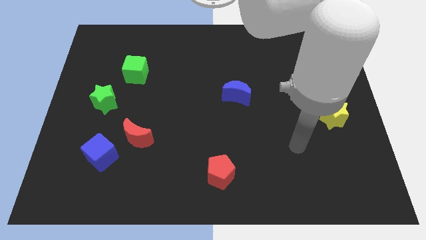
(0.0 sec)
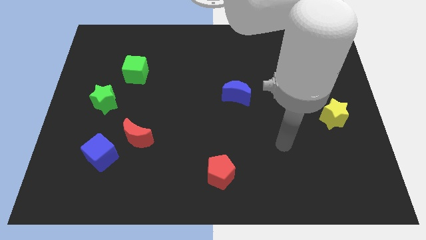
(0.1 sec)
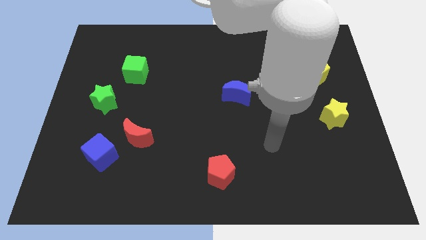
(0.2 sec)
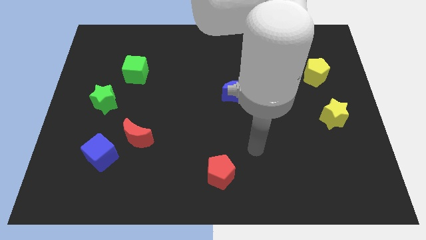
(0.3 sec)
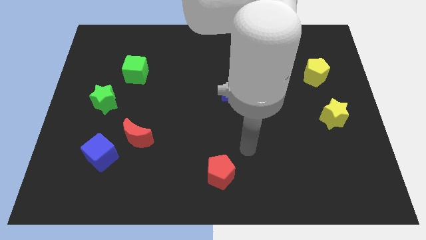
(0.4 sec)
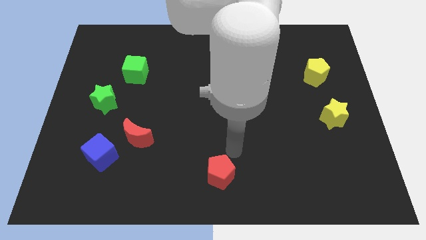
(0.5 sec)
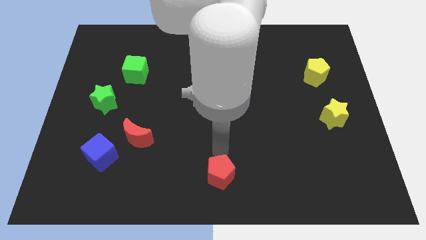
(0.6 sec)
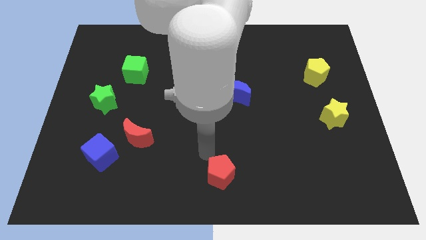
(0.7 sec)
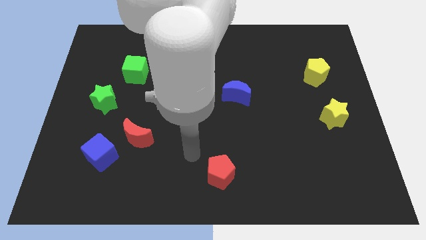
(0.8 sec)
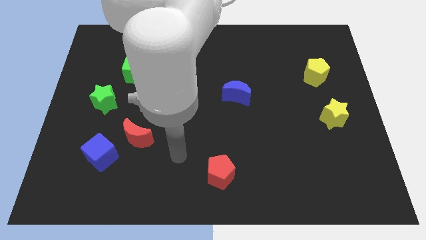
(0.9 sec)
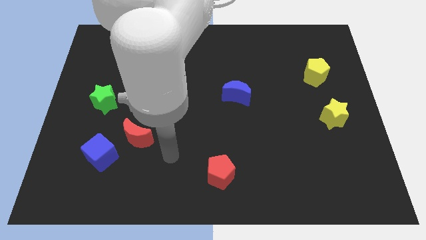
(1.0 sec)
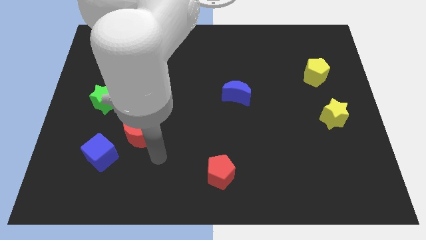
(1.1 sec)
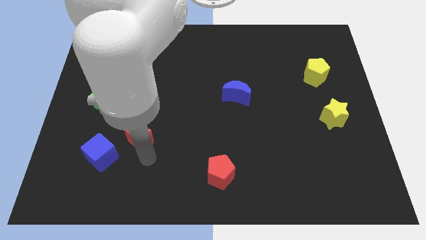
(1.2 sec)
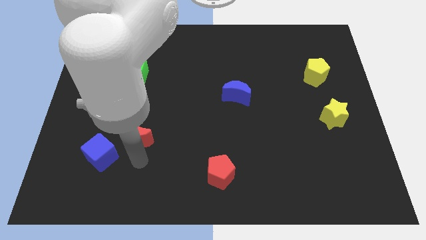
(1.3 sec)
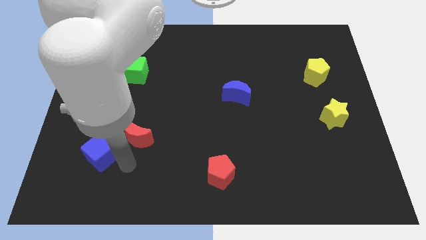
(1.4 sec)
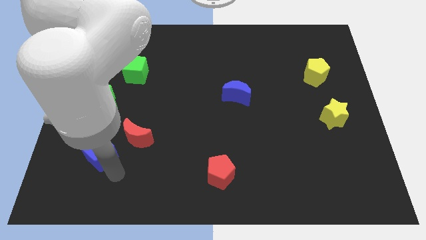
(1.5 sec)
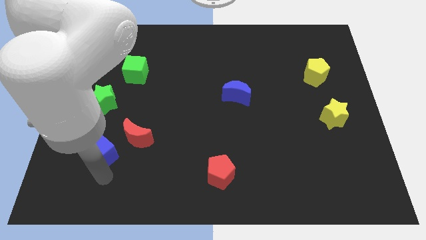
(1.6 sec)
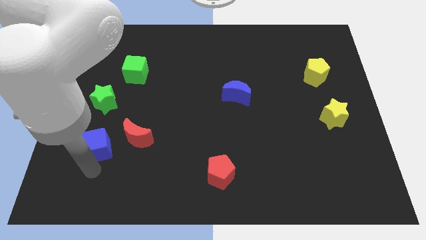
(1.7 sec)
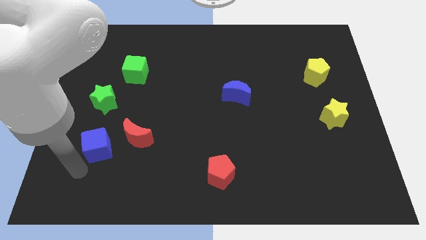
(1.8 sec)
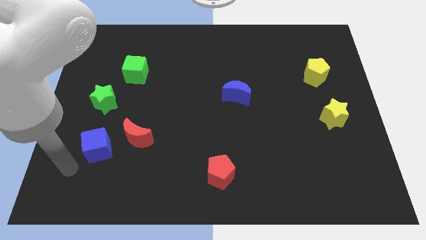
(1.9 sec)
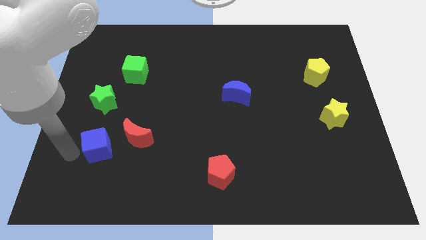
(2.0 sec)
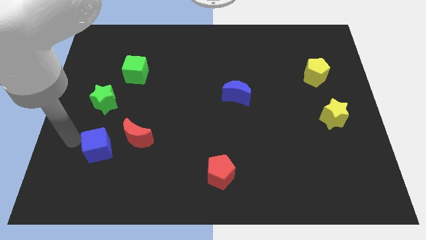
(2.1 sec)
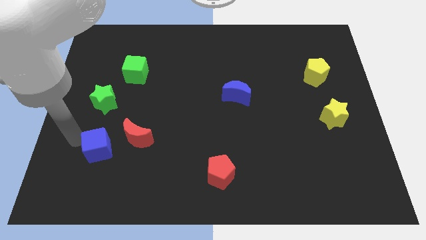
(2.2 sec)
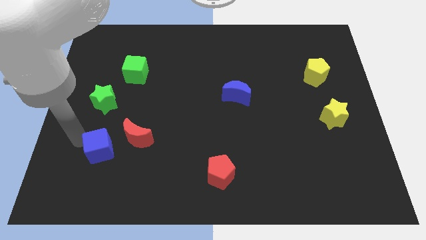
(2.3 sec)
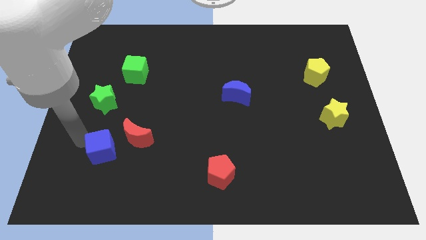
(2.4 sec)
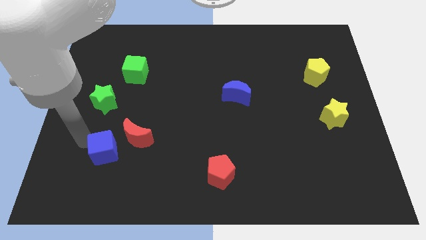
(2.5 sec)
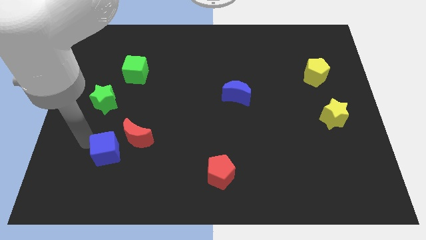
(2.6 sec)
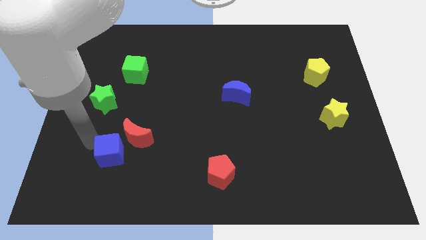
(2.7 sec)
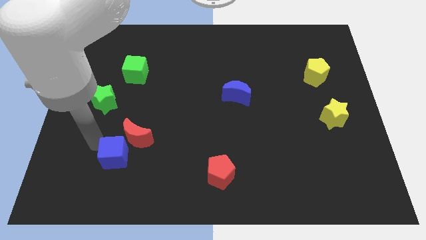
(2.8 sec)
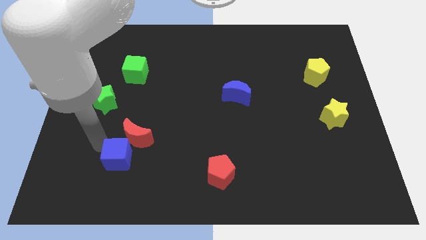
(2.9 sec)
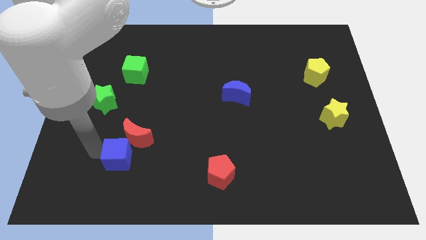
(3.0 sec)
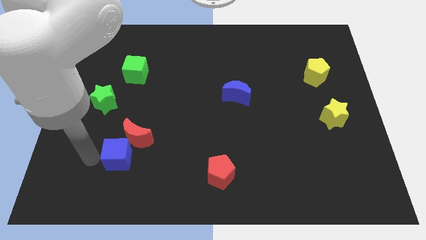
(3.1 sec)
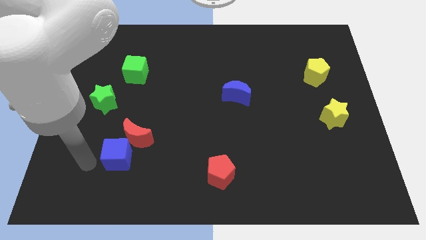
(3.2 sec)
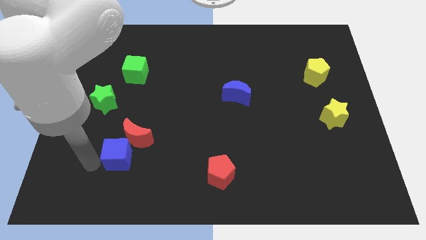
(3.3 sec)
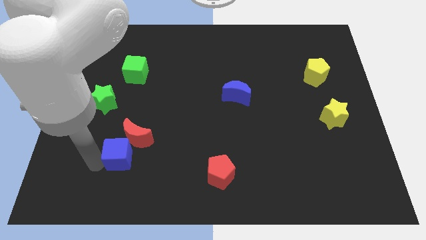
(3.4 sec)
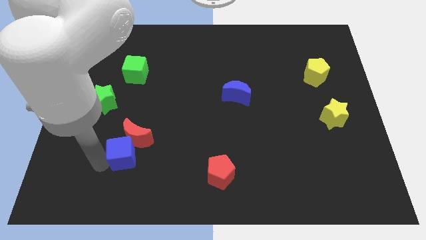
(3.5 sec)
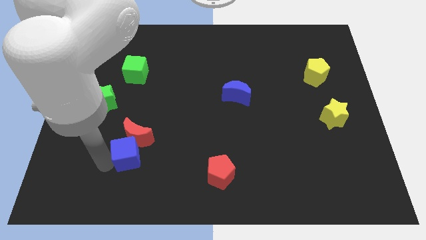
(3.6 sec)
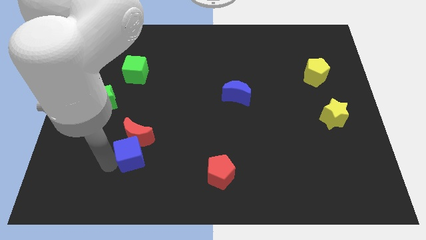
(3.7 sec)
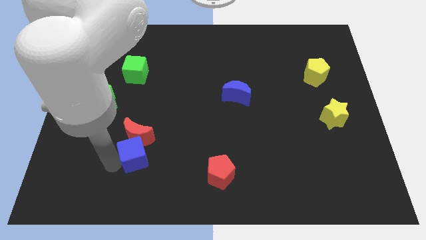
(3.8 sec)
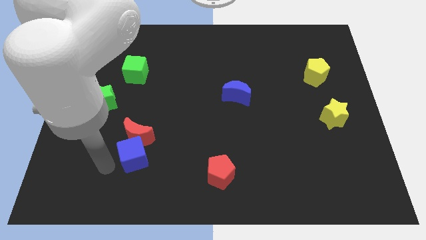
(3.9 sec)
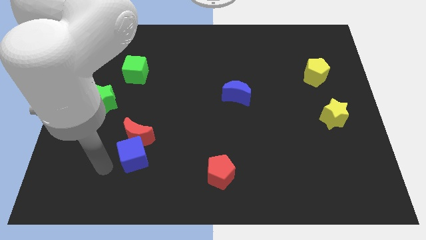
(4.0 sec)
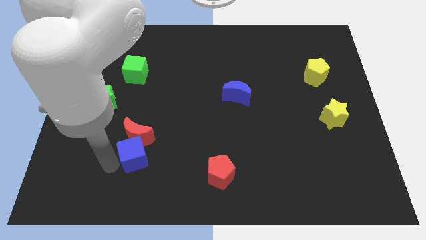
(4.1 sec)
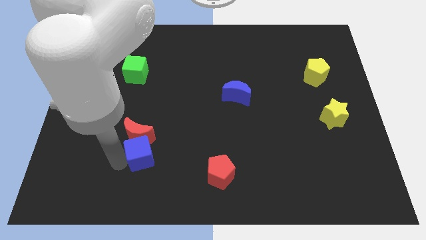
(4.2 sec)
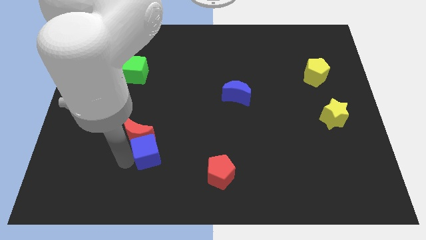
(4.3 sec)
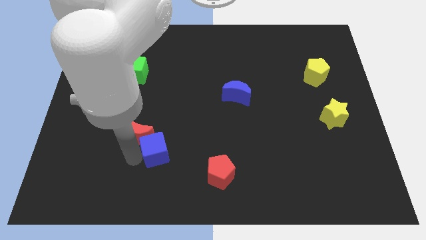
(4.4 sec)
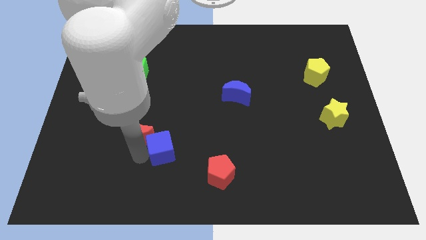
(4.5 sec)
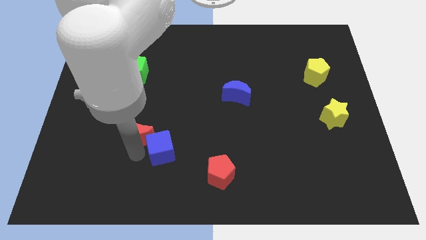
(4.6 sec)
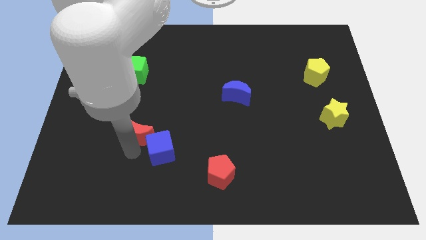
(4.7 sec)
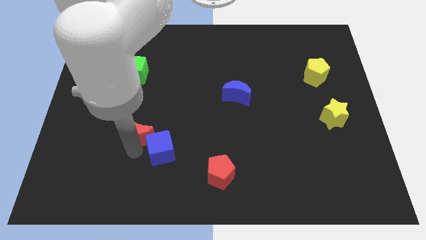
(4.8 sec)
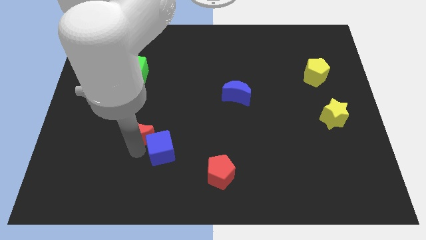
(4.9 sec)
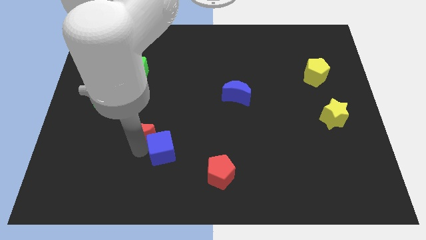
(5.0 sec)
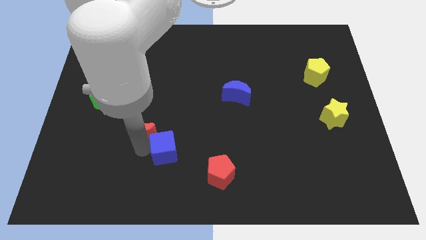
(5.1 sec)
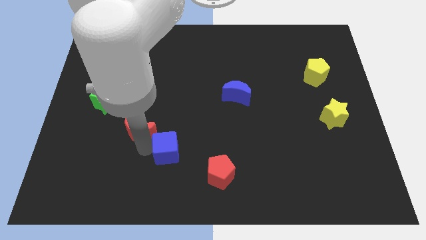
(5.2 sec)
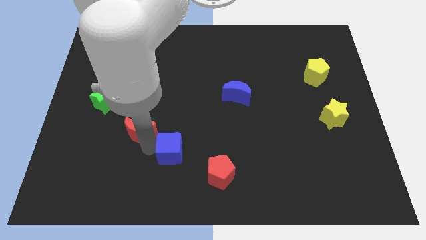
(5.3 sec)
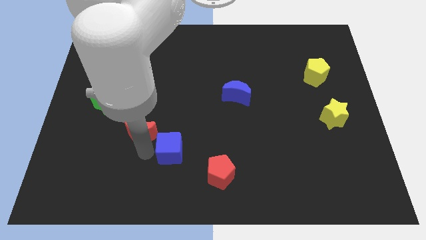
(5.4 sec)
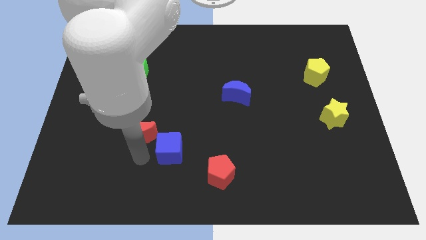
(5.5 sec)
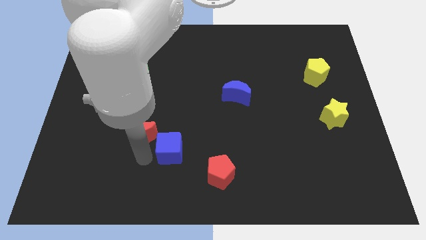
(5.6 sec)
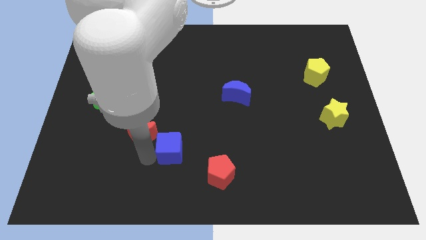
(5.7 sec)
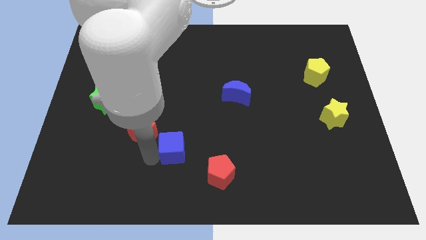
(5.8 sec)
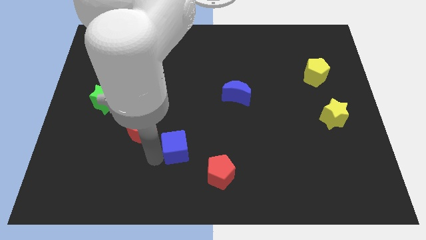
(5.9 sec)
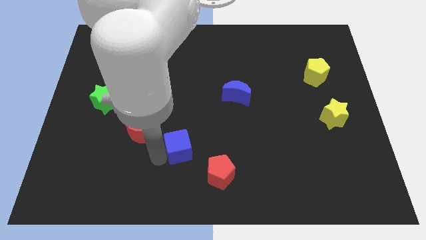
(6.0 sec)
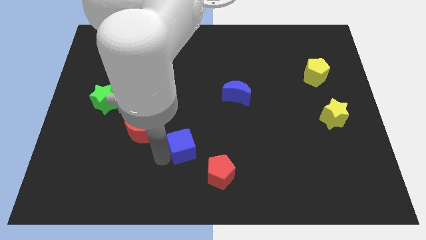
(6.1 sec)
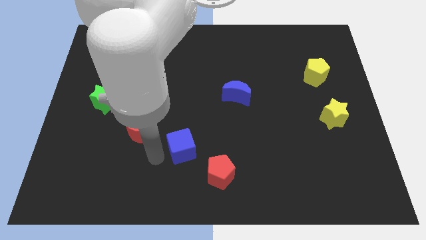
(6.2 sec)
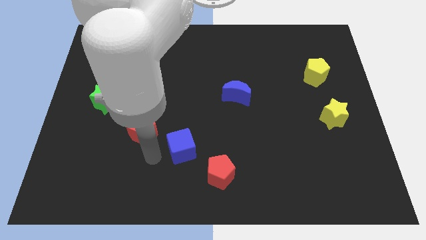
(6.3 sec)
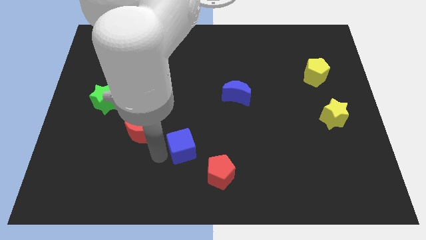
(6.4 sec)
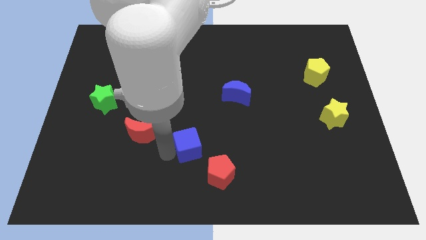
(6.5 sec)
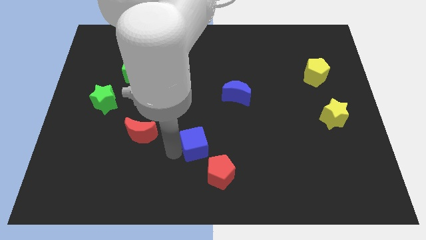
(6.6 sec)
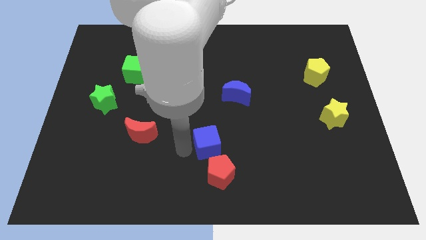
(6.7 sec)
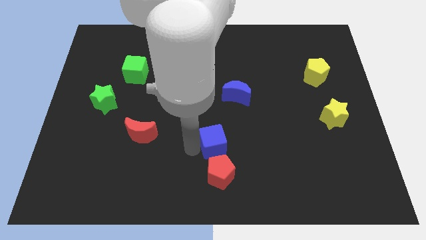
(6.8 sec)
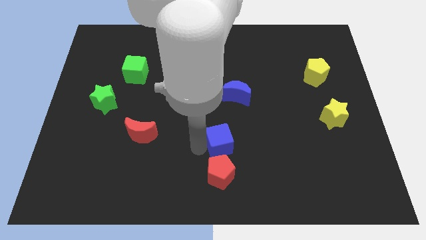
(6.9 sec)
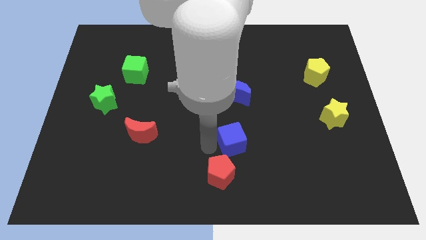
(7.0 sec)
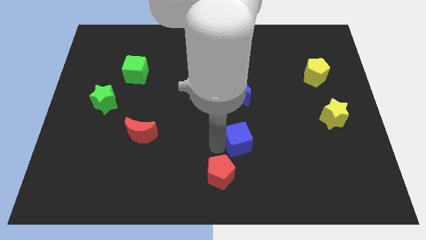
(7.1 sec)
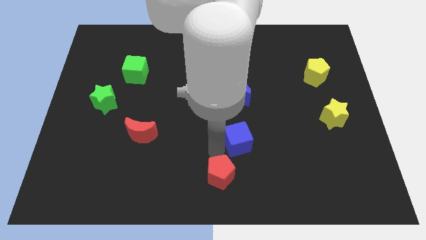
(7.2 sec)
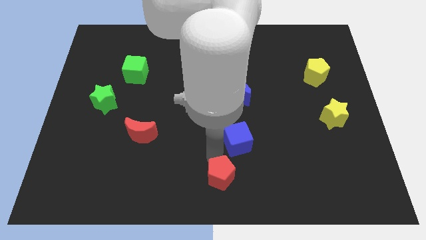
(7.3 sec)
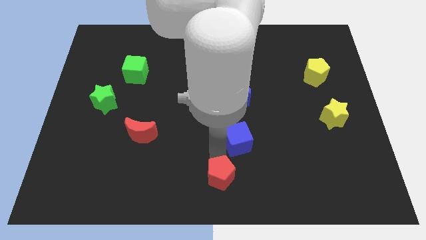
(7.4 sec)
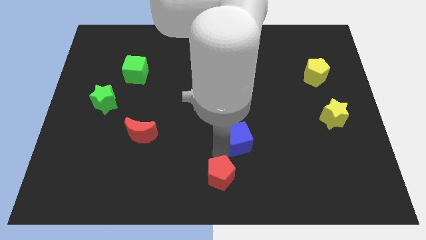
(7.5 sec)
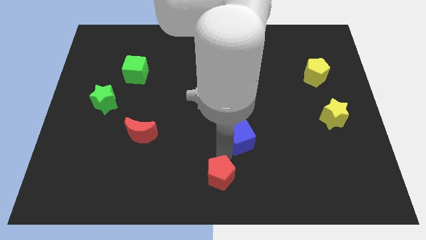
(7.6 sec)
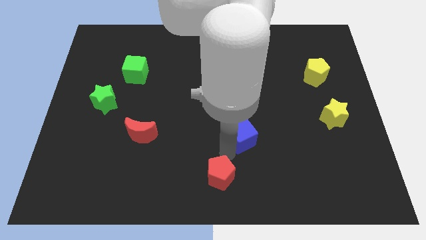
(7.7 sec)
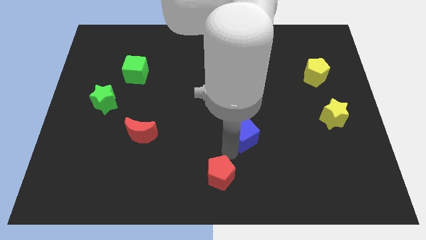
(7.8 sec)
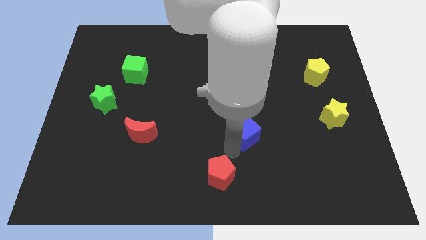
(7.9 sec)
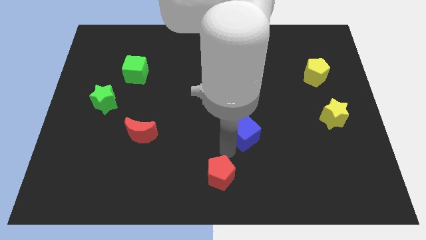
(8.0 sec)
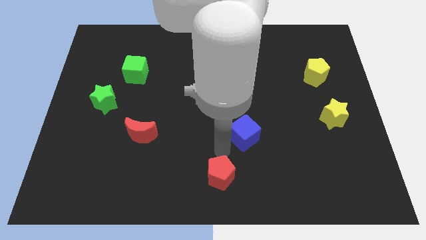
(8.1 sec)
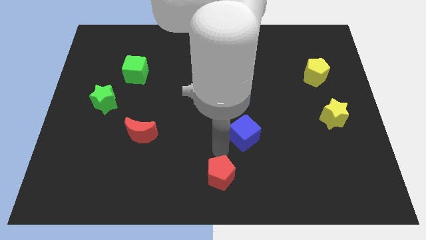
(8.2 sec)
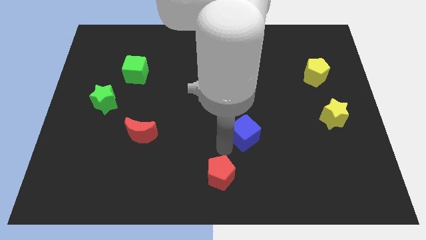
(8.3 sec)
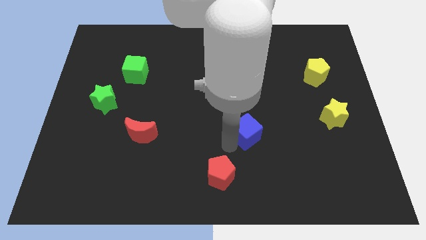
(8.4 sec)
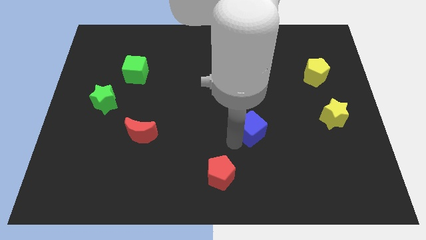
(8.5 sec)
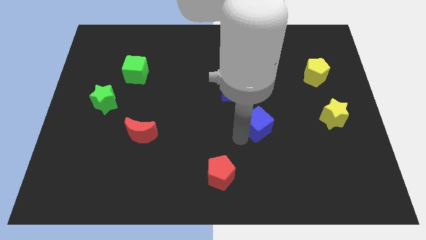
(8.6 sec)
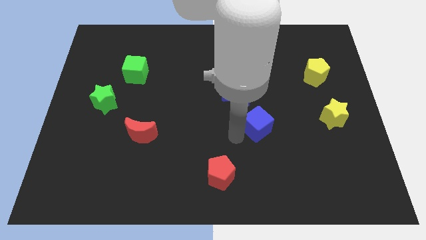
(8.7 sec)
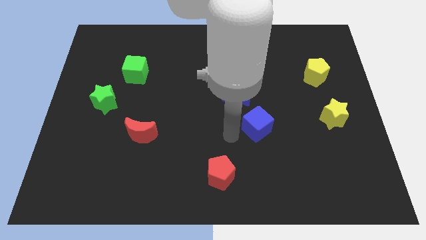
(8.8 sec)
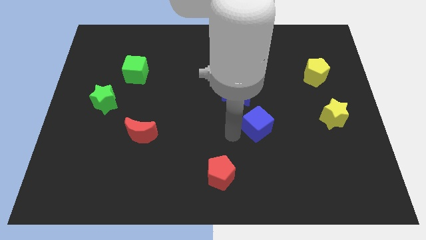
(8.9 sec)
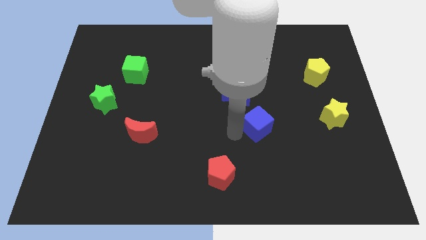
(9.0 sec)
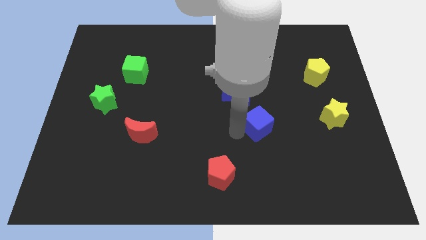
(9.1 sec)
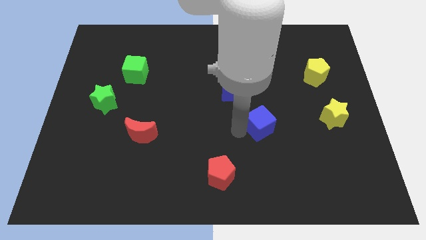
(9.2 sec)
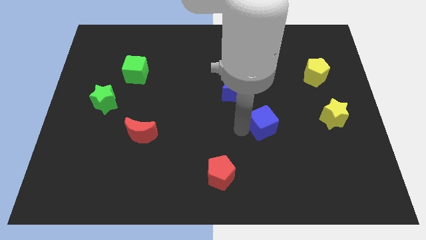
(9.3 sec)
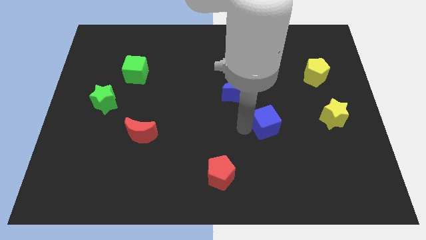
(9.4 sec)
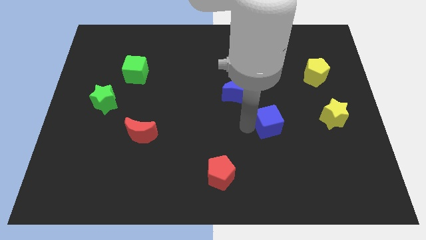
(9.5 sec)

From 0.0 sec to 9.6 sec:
put the blue cube to the left of the yellow star
